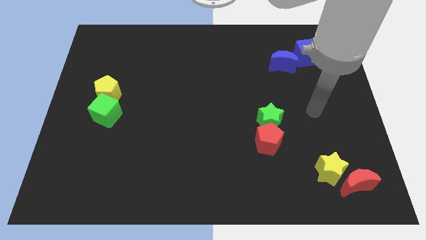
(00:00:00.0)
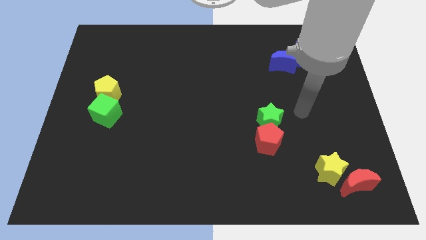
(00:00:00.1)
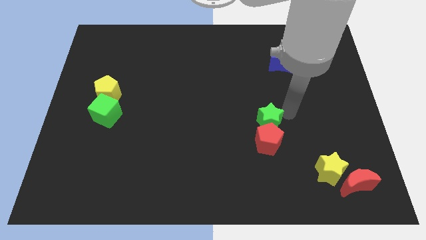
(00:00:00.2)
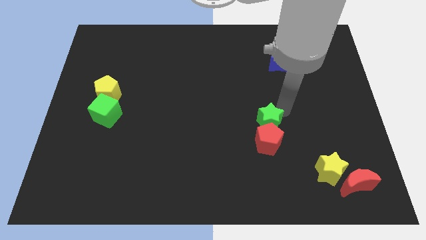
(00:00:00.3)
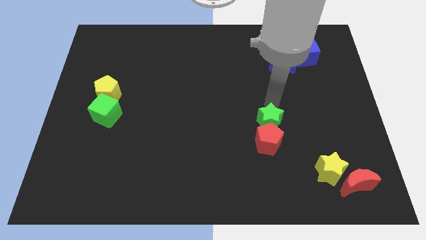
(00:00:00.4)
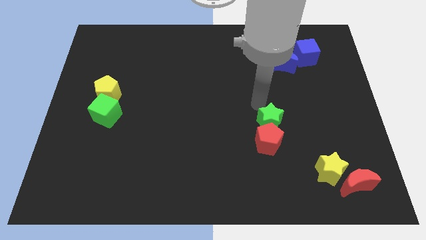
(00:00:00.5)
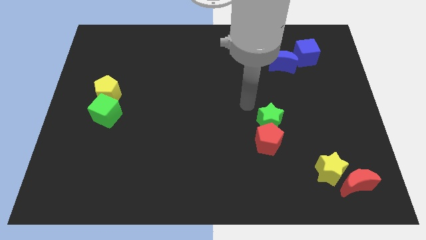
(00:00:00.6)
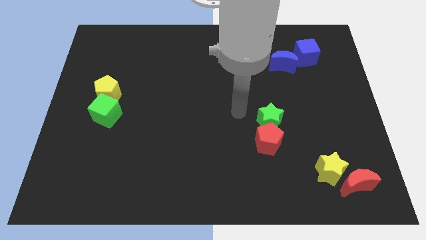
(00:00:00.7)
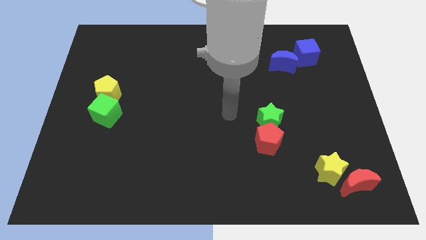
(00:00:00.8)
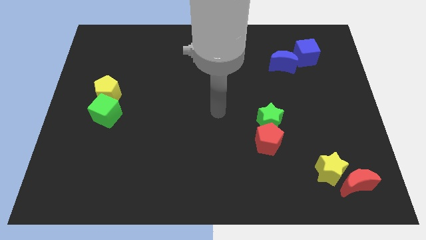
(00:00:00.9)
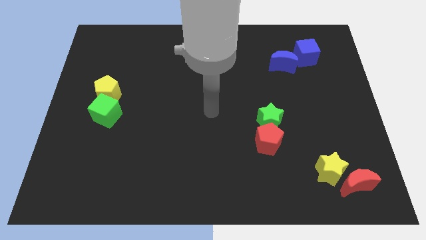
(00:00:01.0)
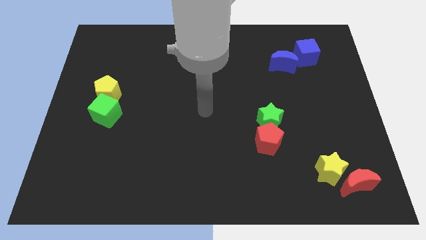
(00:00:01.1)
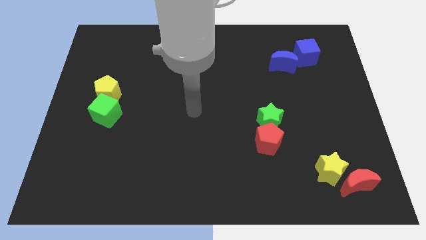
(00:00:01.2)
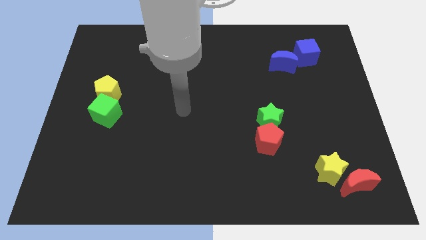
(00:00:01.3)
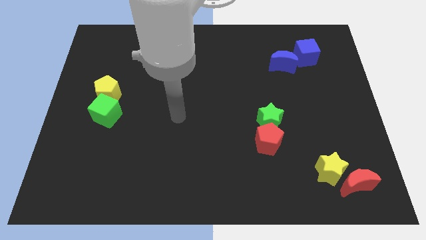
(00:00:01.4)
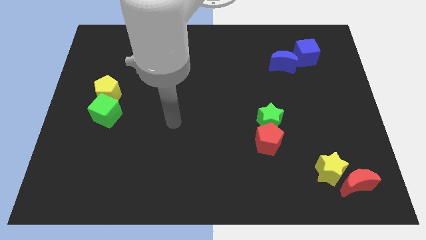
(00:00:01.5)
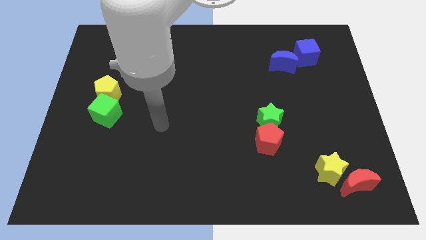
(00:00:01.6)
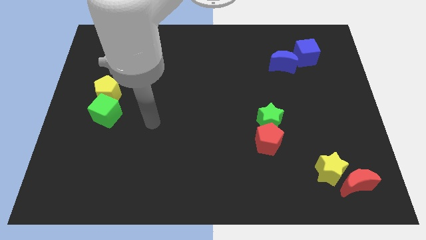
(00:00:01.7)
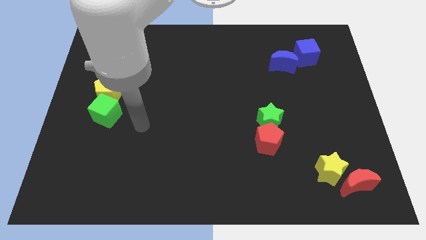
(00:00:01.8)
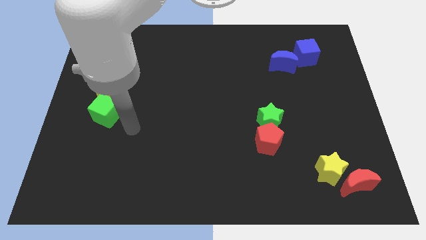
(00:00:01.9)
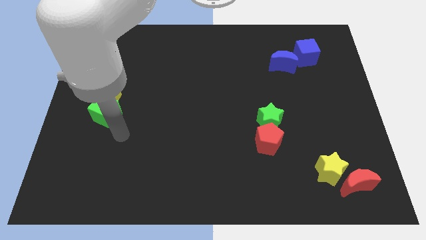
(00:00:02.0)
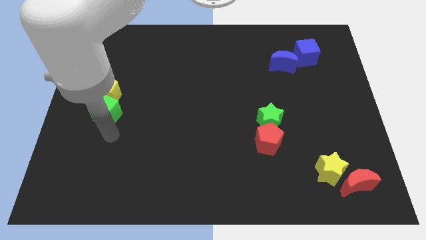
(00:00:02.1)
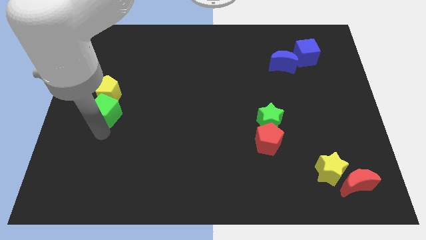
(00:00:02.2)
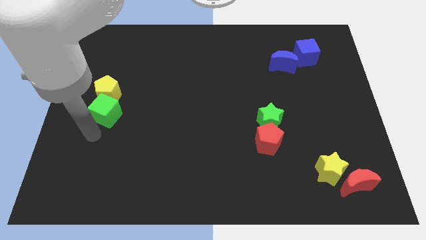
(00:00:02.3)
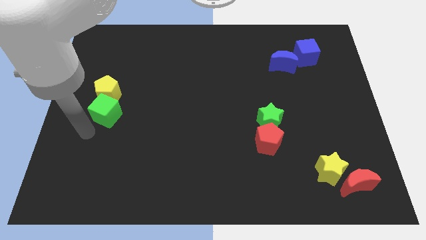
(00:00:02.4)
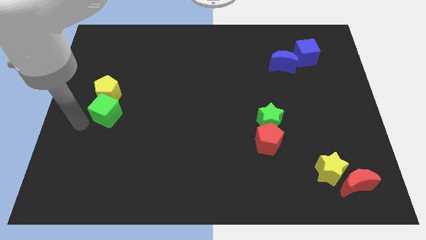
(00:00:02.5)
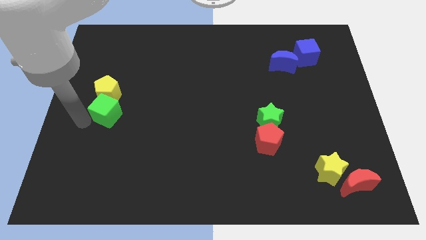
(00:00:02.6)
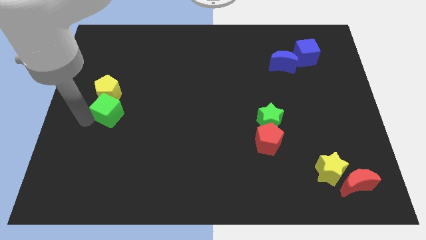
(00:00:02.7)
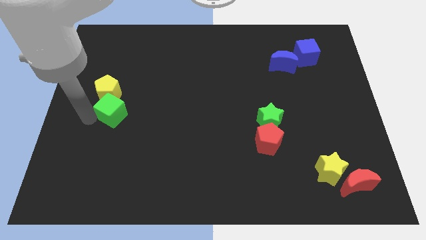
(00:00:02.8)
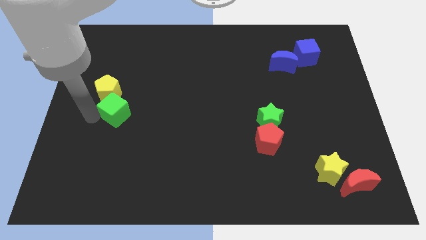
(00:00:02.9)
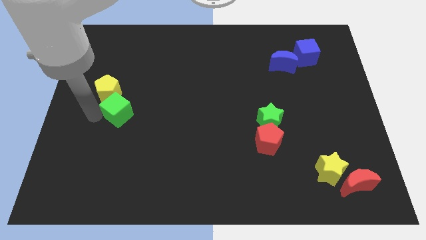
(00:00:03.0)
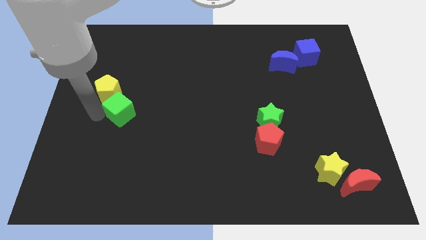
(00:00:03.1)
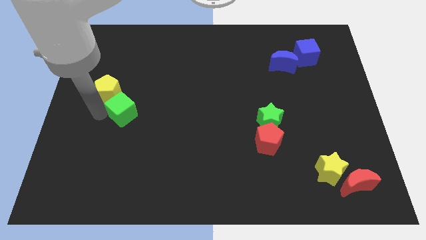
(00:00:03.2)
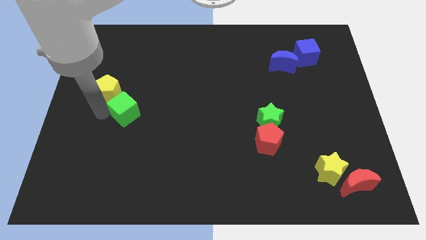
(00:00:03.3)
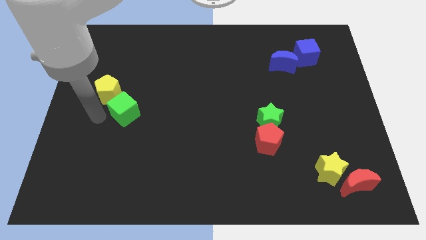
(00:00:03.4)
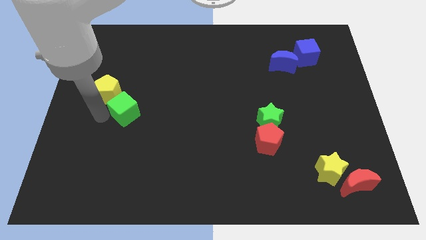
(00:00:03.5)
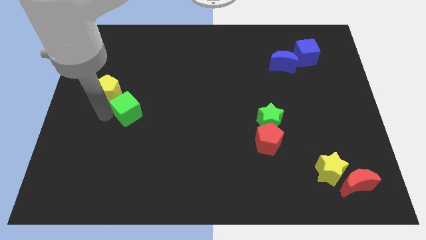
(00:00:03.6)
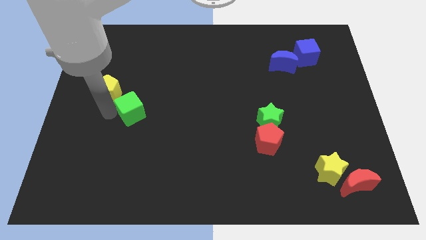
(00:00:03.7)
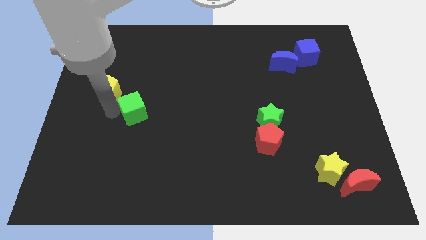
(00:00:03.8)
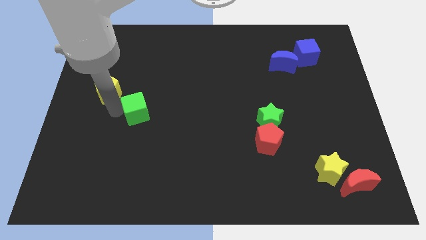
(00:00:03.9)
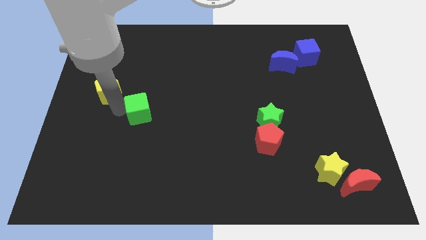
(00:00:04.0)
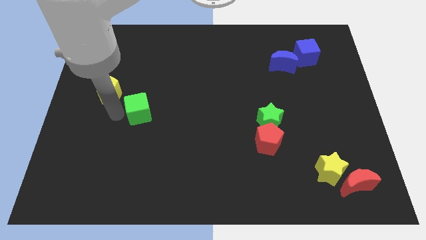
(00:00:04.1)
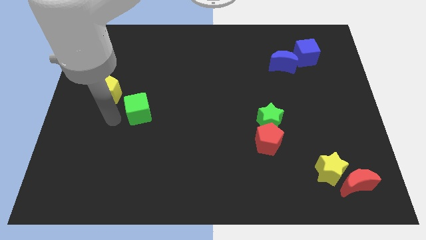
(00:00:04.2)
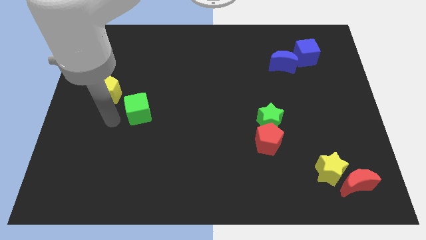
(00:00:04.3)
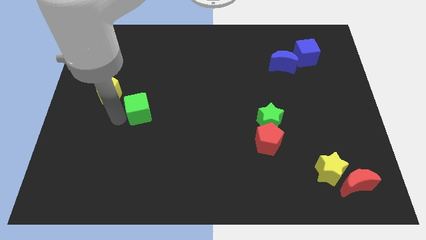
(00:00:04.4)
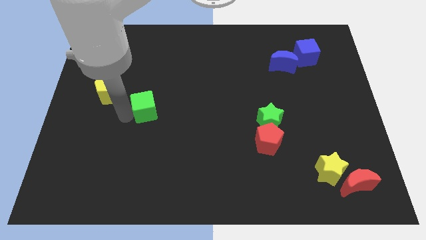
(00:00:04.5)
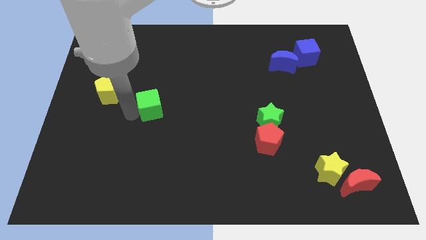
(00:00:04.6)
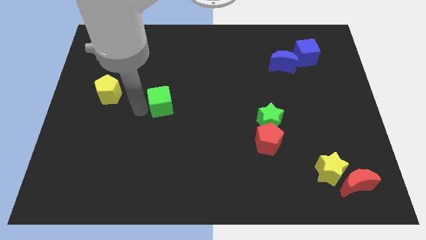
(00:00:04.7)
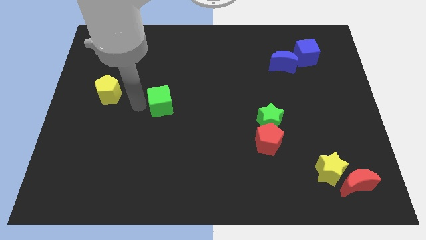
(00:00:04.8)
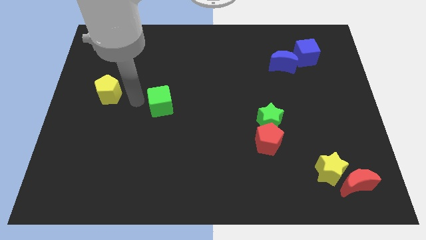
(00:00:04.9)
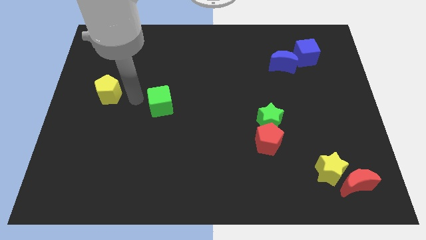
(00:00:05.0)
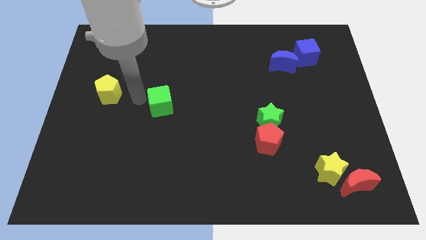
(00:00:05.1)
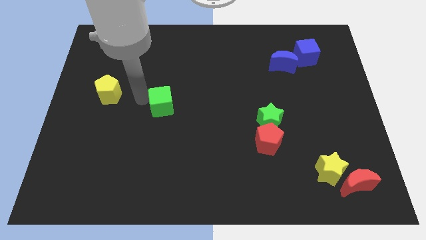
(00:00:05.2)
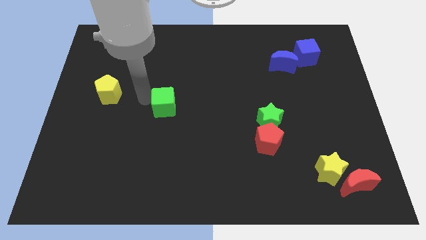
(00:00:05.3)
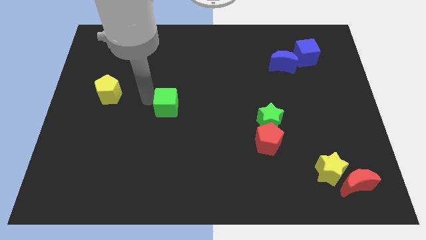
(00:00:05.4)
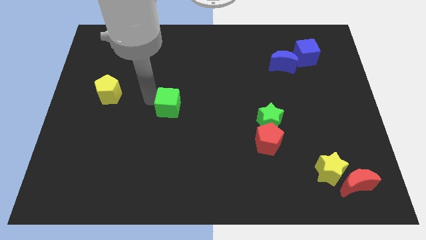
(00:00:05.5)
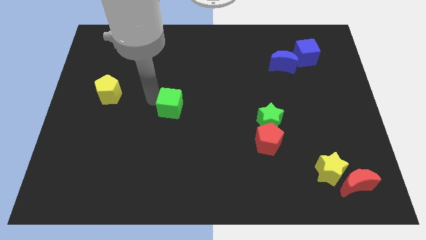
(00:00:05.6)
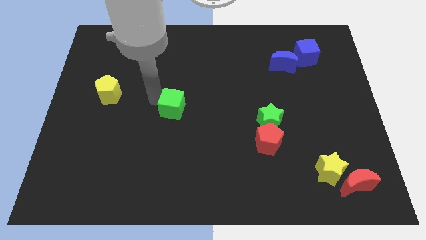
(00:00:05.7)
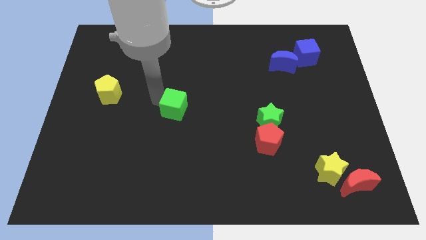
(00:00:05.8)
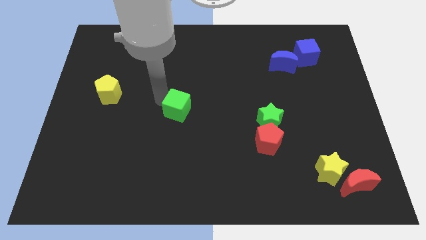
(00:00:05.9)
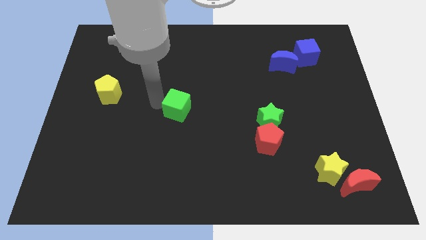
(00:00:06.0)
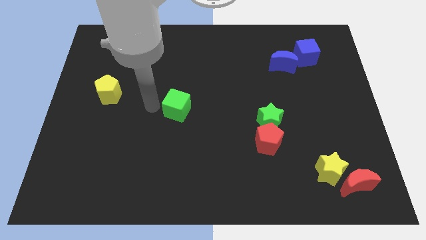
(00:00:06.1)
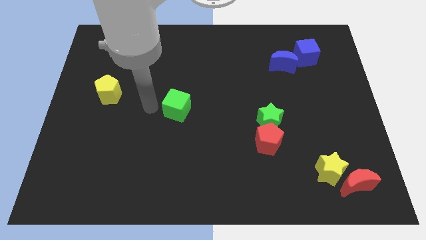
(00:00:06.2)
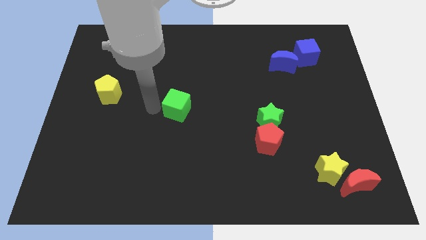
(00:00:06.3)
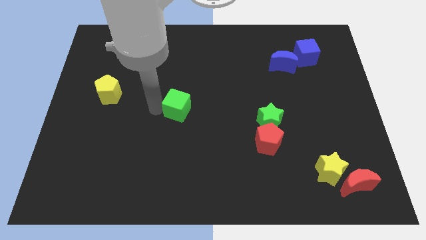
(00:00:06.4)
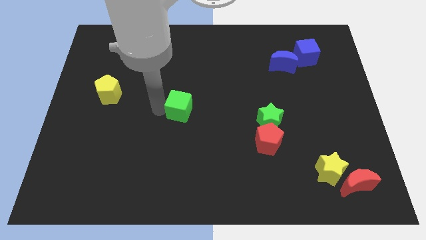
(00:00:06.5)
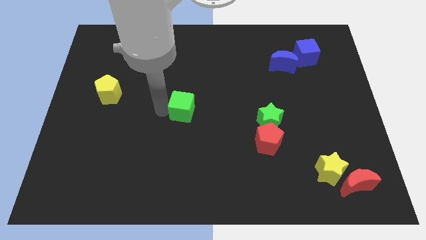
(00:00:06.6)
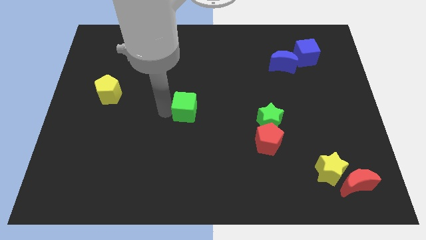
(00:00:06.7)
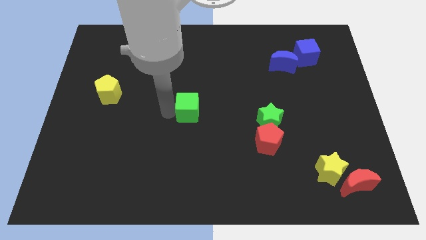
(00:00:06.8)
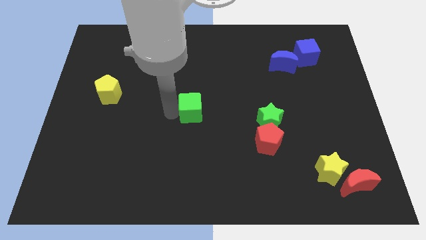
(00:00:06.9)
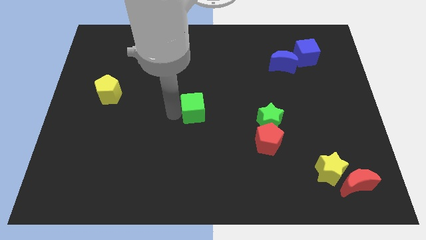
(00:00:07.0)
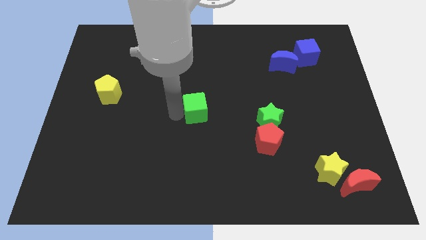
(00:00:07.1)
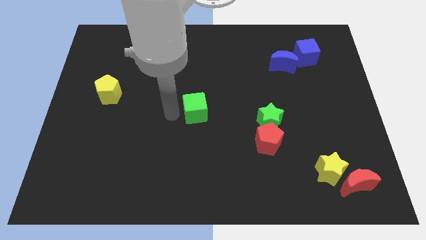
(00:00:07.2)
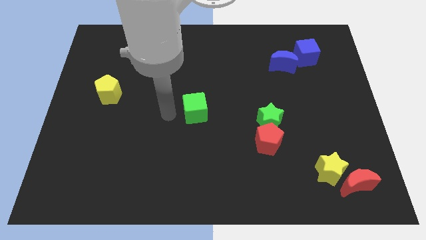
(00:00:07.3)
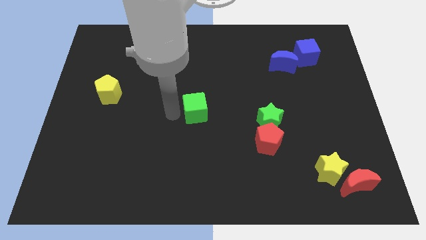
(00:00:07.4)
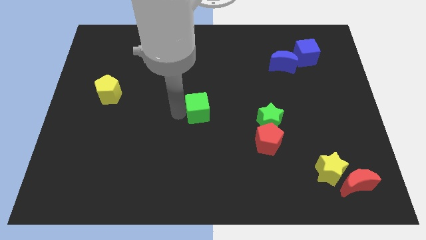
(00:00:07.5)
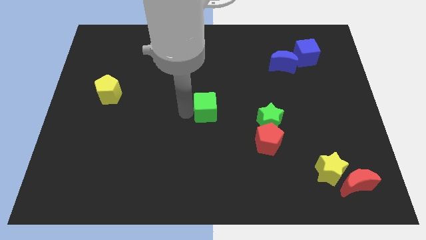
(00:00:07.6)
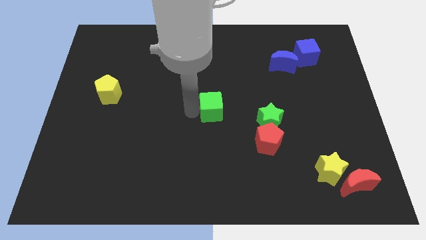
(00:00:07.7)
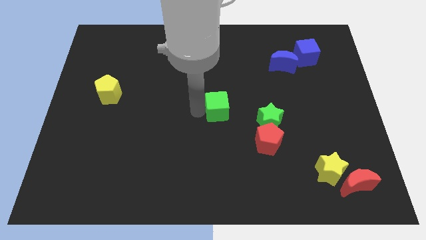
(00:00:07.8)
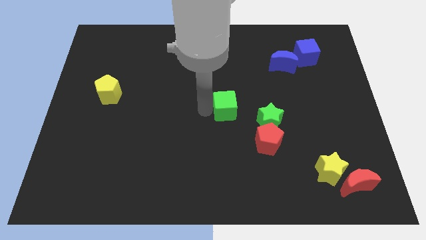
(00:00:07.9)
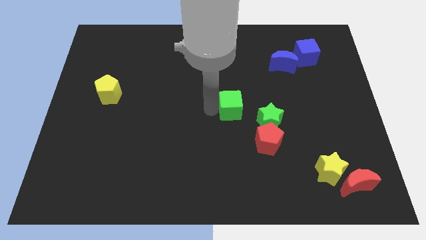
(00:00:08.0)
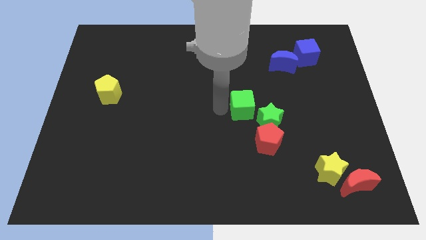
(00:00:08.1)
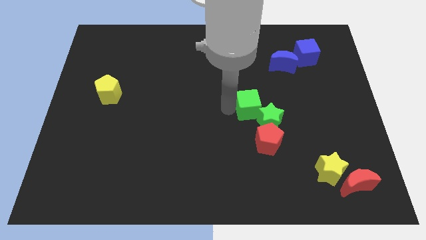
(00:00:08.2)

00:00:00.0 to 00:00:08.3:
put the green cube above the red pentagon
